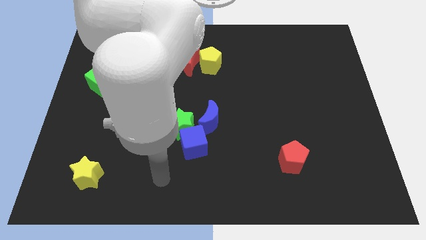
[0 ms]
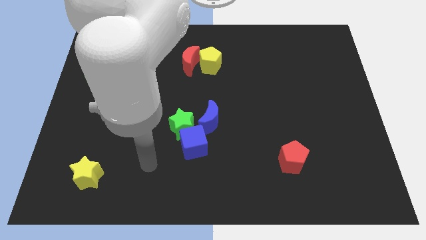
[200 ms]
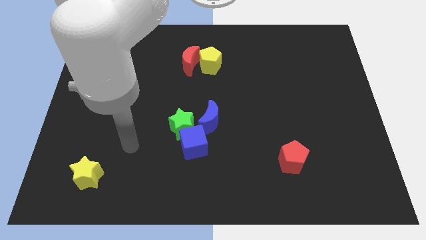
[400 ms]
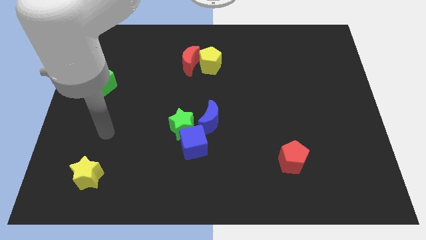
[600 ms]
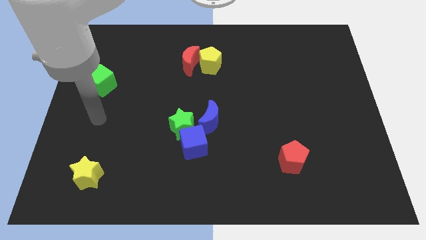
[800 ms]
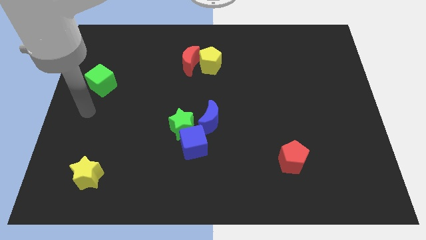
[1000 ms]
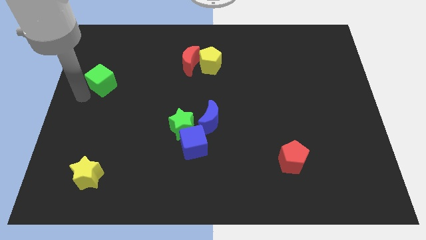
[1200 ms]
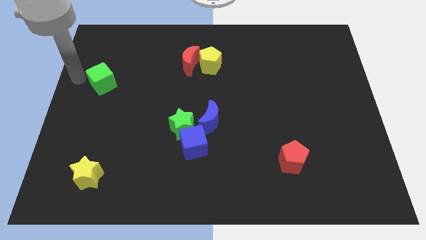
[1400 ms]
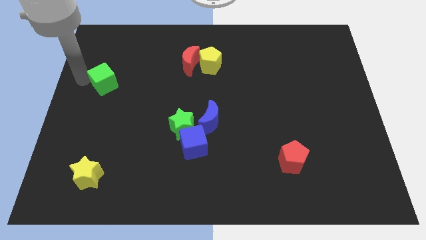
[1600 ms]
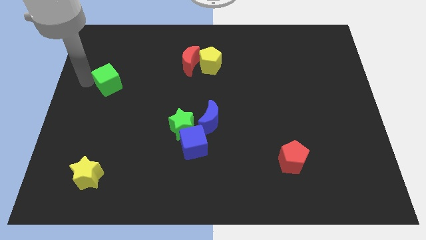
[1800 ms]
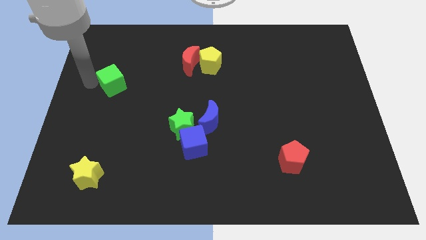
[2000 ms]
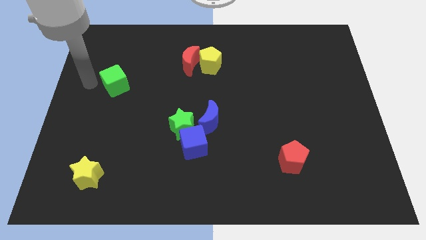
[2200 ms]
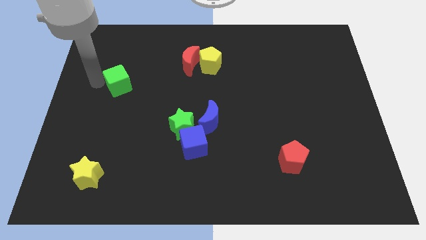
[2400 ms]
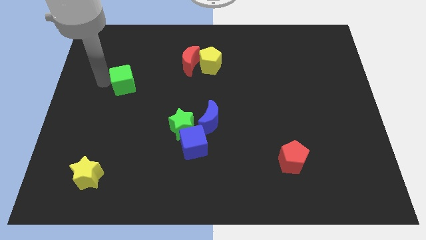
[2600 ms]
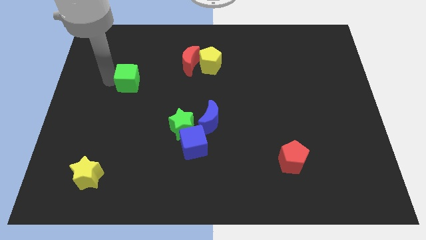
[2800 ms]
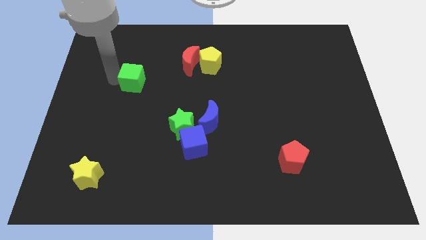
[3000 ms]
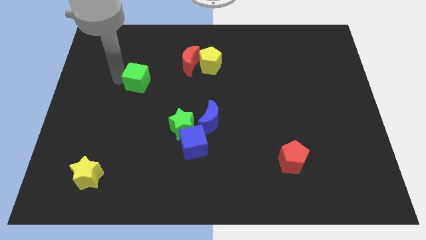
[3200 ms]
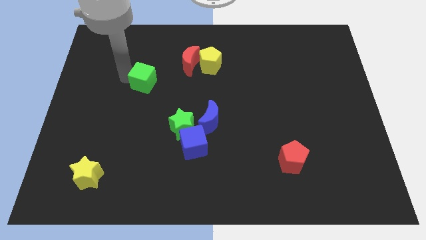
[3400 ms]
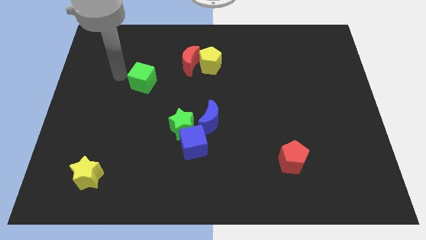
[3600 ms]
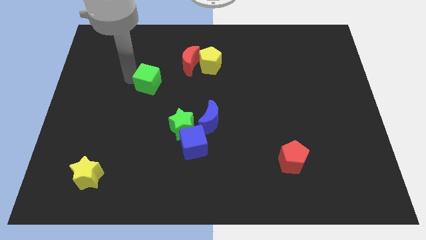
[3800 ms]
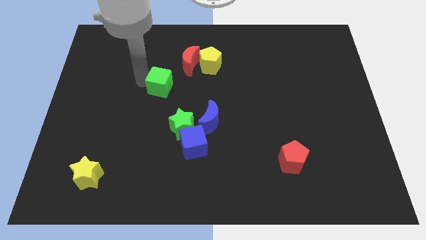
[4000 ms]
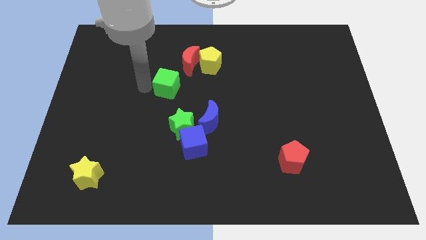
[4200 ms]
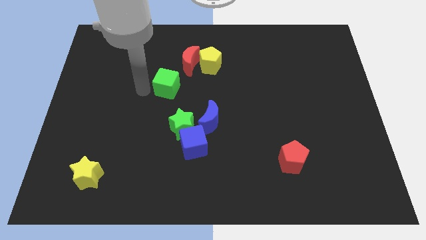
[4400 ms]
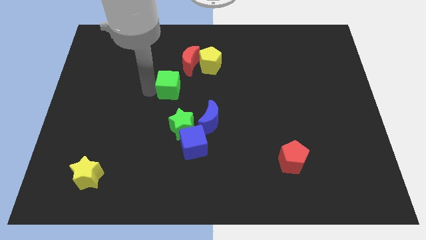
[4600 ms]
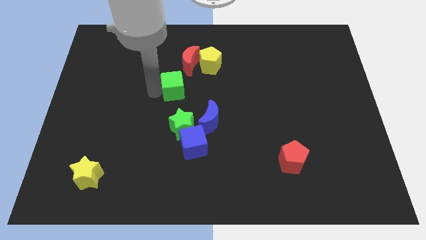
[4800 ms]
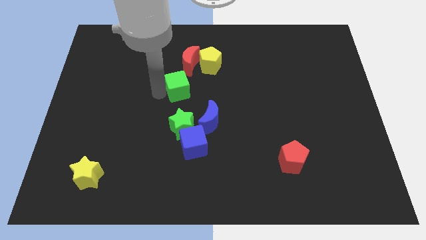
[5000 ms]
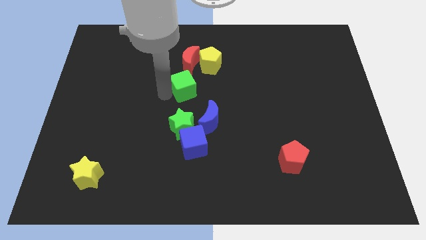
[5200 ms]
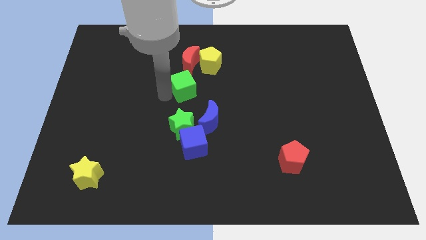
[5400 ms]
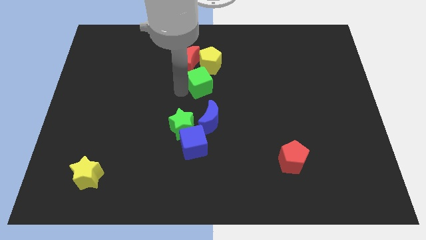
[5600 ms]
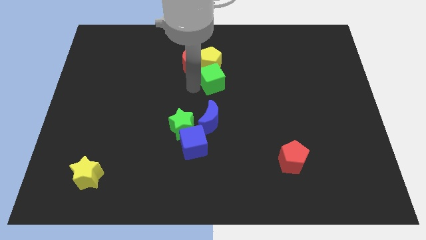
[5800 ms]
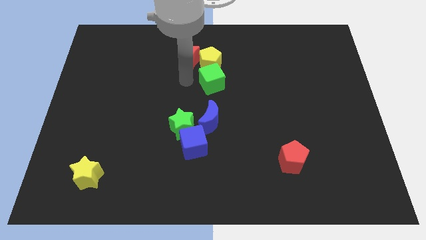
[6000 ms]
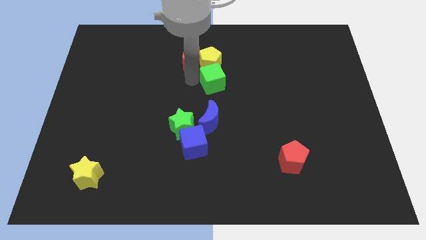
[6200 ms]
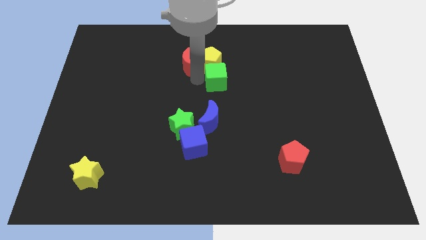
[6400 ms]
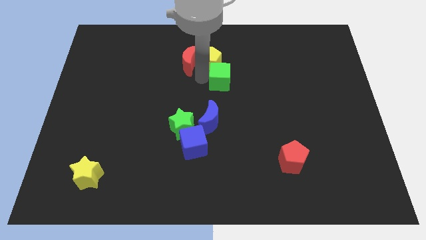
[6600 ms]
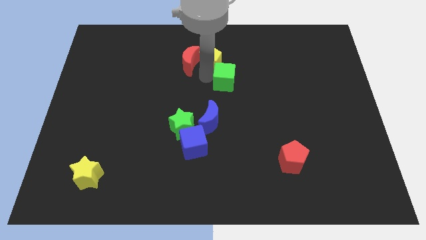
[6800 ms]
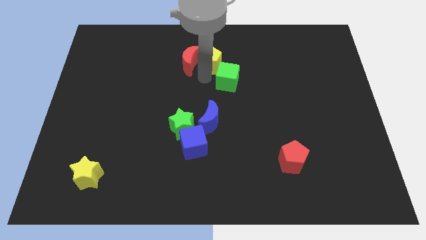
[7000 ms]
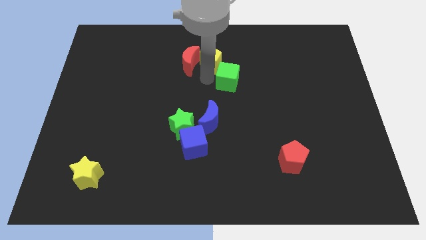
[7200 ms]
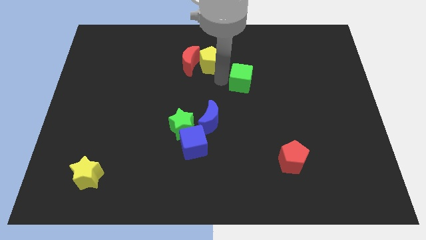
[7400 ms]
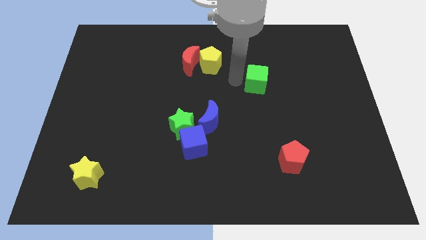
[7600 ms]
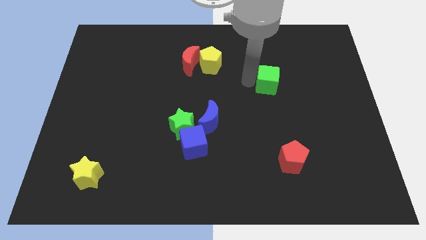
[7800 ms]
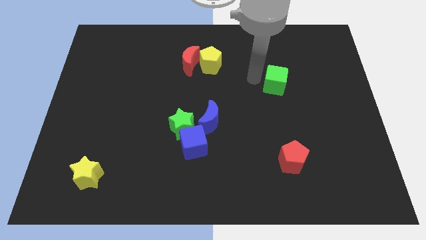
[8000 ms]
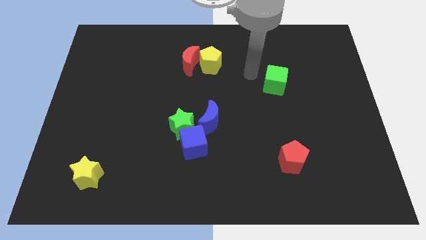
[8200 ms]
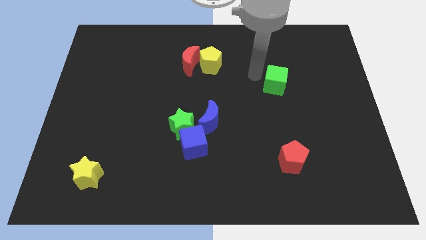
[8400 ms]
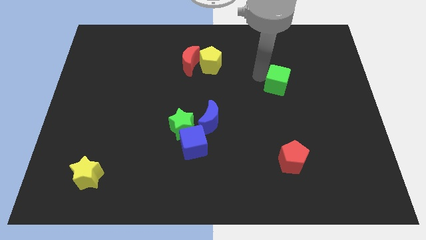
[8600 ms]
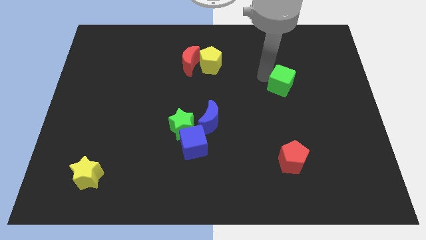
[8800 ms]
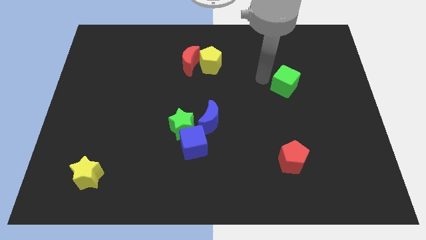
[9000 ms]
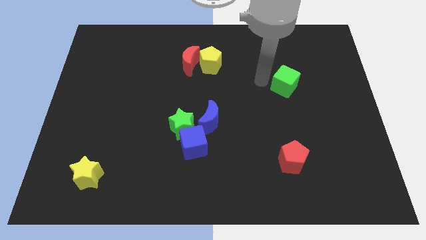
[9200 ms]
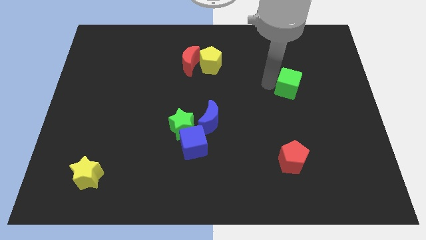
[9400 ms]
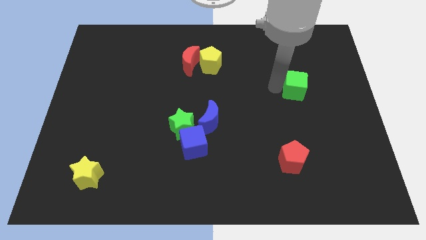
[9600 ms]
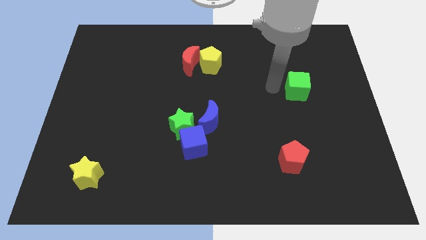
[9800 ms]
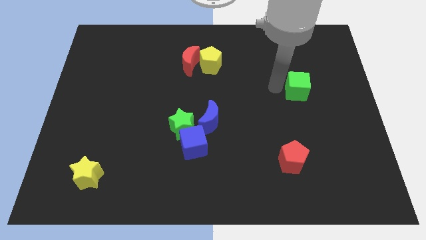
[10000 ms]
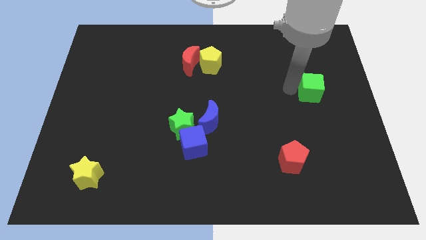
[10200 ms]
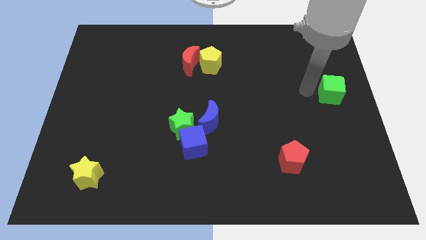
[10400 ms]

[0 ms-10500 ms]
put the green cube to the center right
